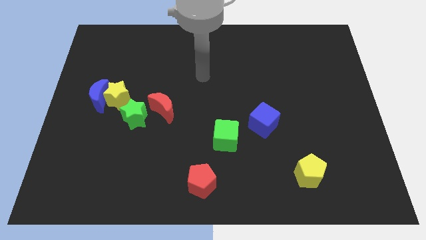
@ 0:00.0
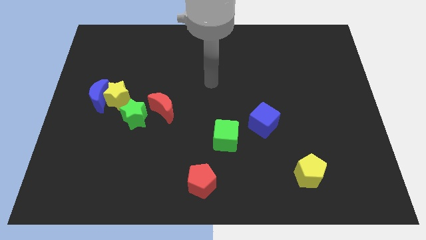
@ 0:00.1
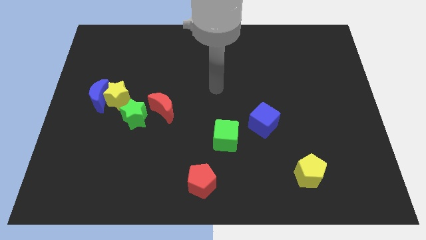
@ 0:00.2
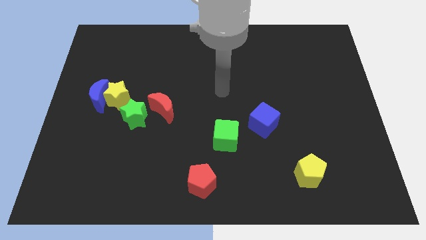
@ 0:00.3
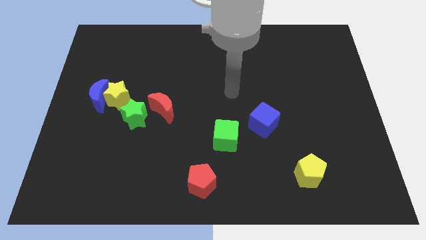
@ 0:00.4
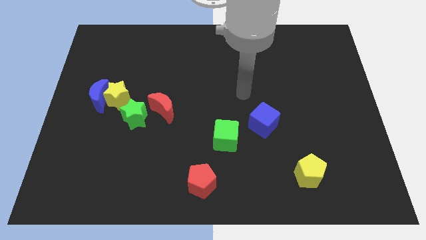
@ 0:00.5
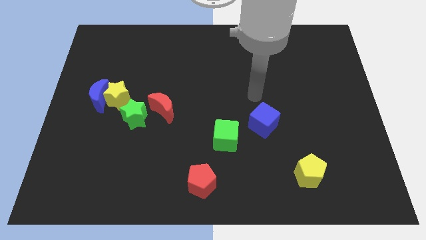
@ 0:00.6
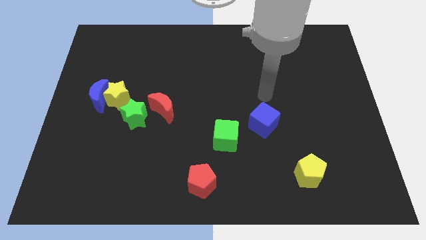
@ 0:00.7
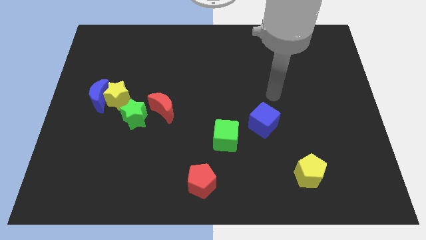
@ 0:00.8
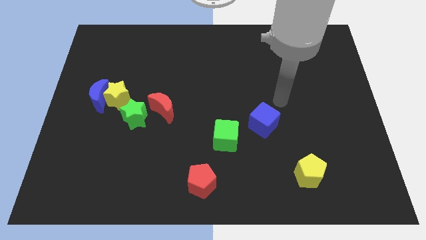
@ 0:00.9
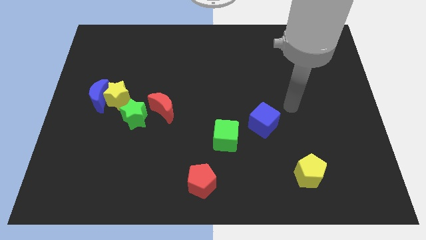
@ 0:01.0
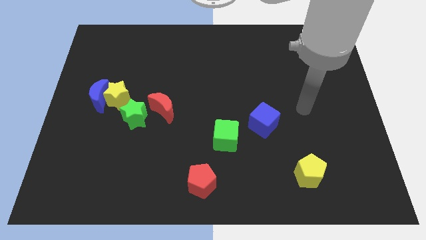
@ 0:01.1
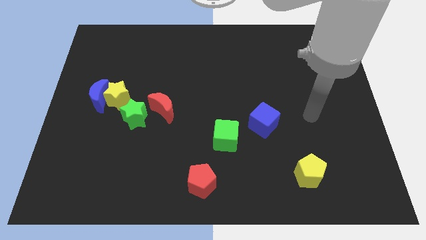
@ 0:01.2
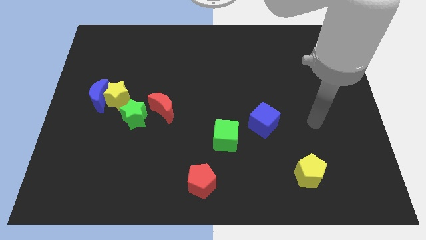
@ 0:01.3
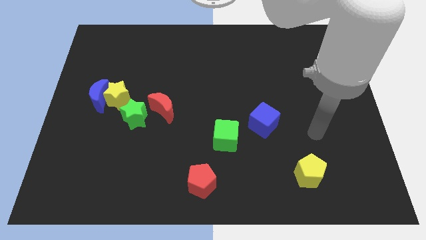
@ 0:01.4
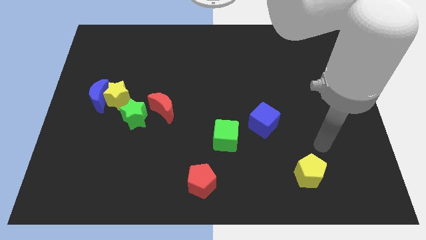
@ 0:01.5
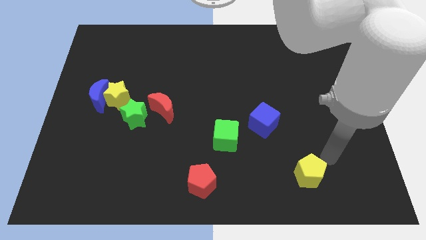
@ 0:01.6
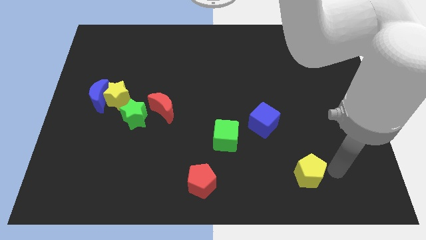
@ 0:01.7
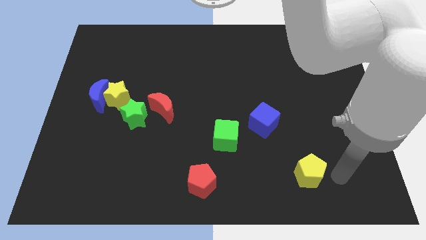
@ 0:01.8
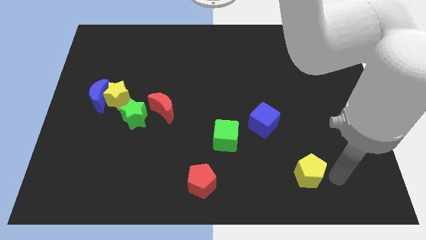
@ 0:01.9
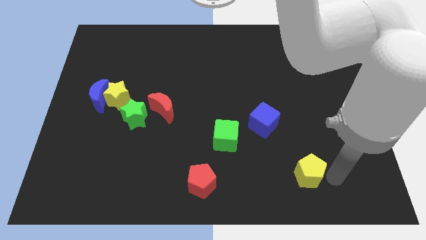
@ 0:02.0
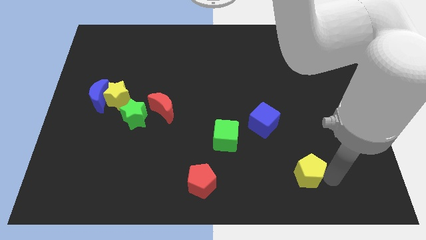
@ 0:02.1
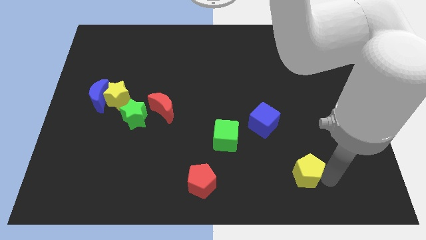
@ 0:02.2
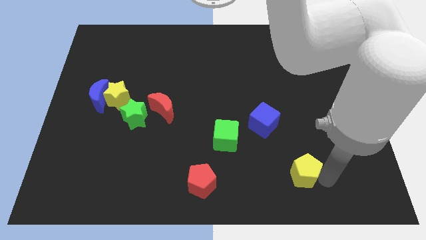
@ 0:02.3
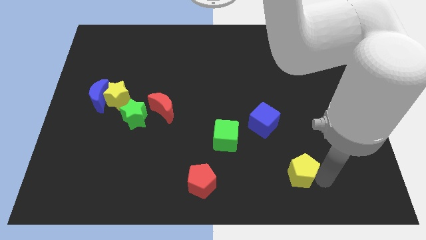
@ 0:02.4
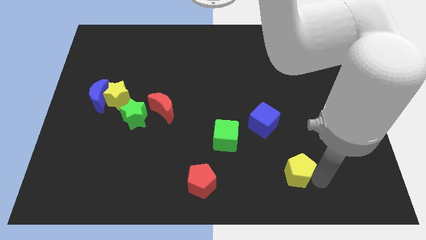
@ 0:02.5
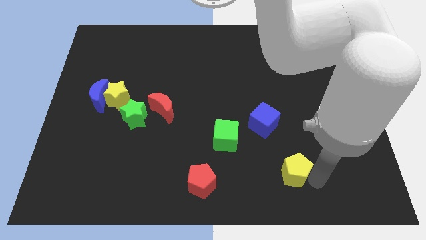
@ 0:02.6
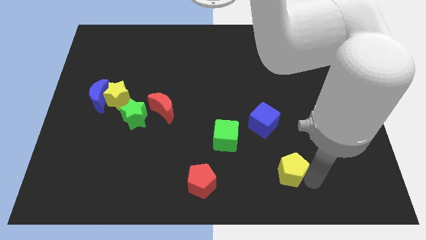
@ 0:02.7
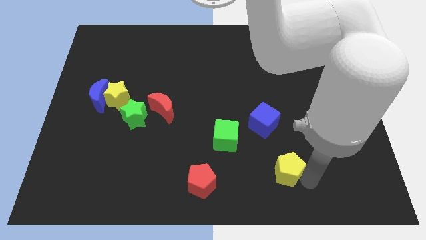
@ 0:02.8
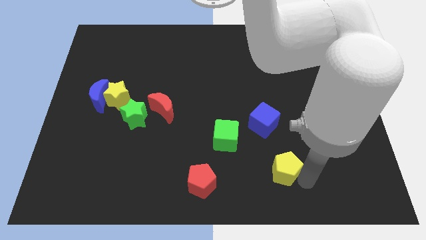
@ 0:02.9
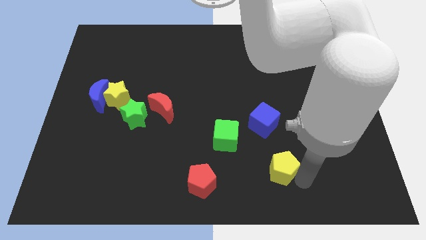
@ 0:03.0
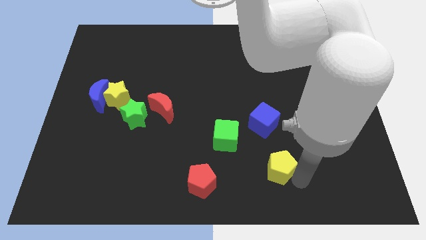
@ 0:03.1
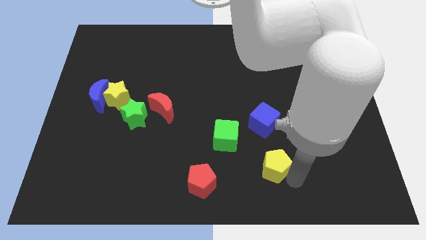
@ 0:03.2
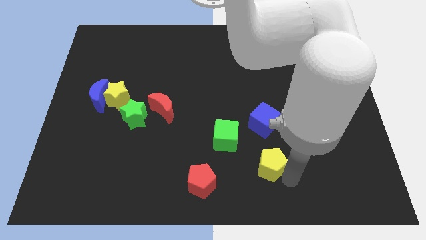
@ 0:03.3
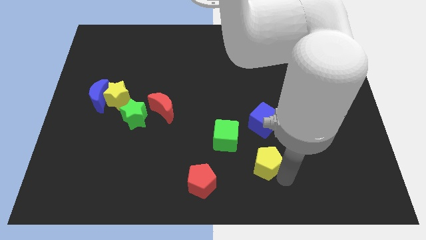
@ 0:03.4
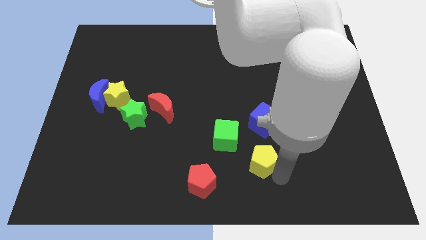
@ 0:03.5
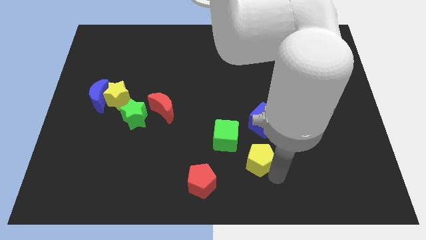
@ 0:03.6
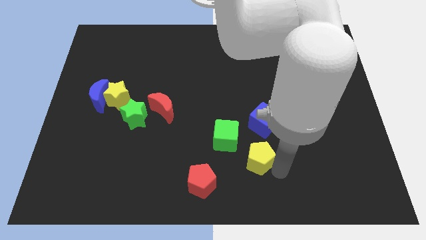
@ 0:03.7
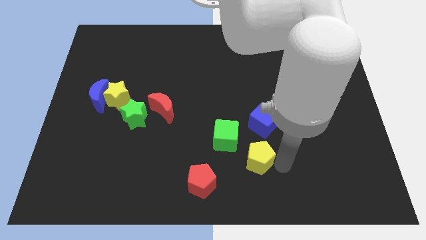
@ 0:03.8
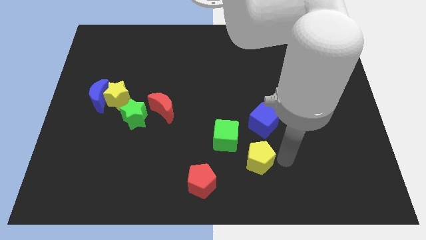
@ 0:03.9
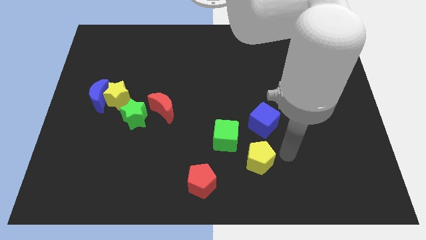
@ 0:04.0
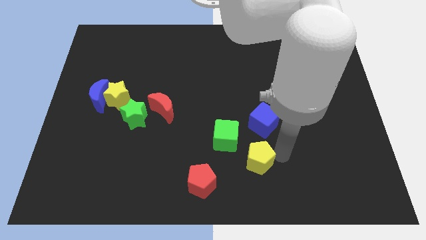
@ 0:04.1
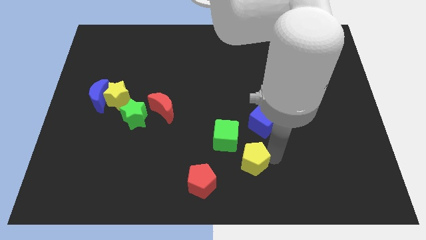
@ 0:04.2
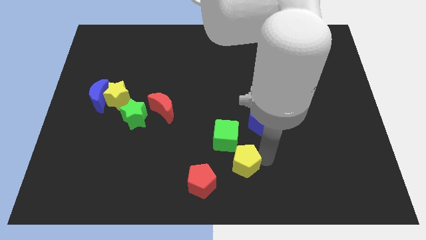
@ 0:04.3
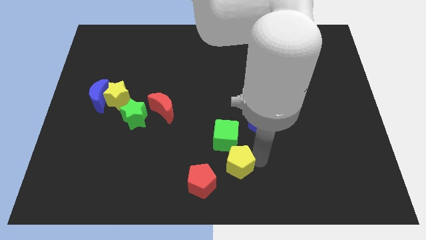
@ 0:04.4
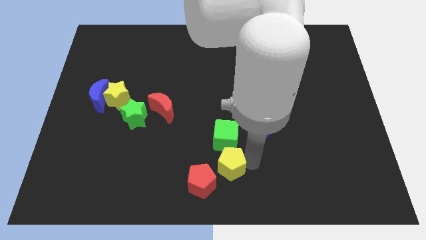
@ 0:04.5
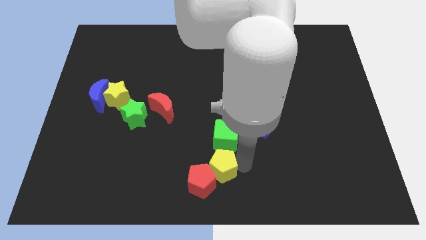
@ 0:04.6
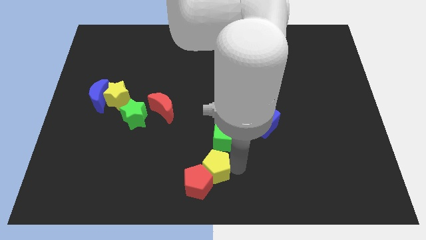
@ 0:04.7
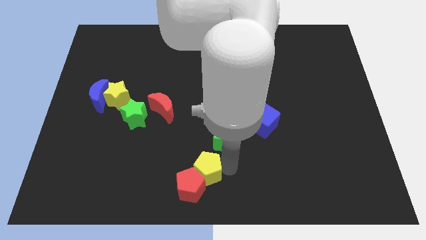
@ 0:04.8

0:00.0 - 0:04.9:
push the yellow pentagon to the left

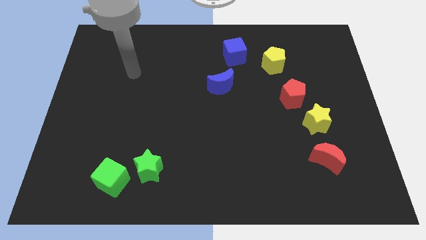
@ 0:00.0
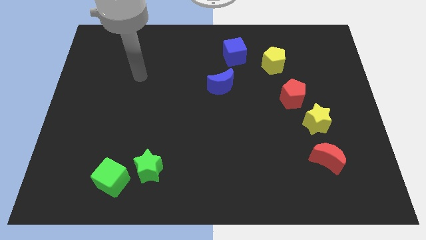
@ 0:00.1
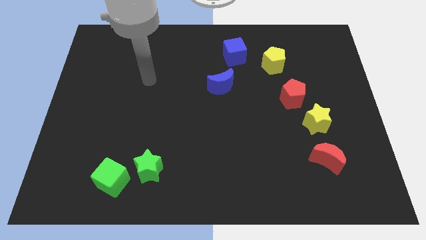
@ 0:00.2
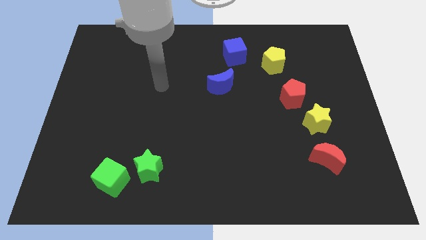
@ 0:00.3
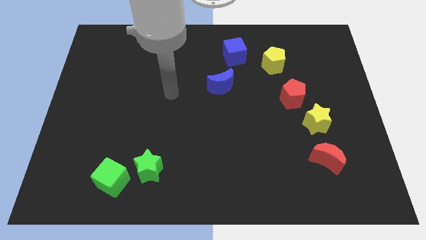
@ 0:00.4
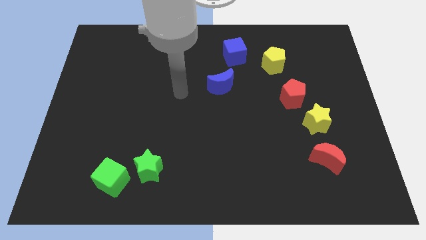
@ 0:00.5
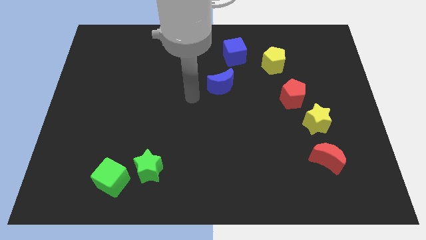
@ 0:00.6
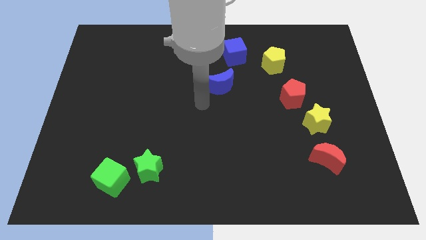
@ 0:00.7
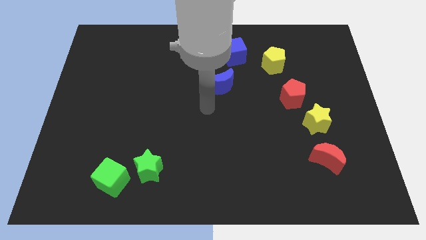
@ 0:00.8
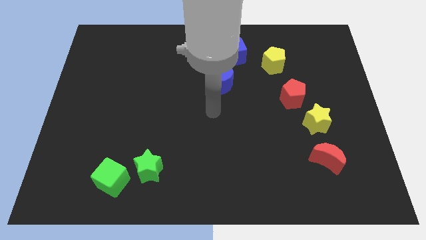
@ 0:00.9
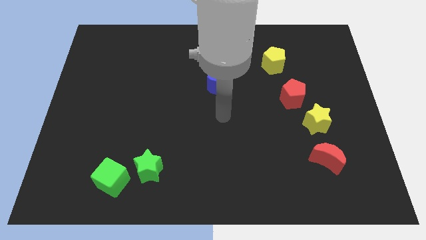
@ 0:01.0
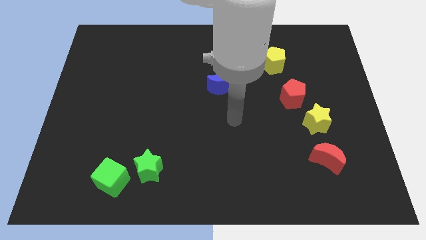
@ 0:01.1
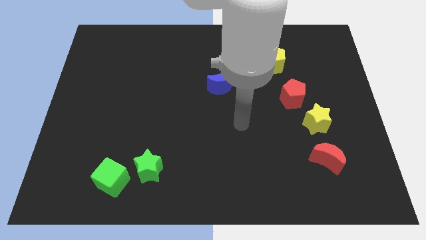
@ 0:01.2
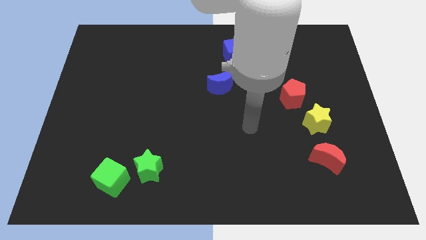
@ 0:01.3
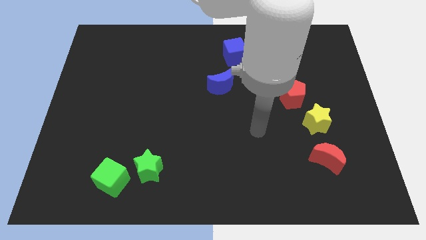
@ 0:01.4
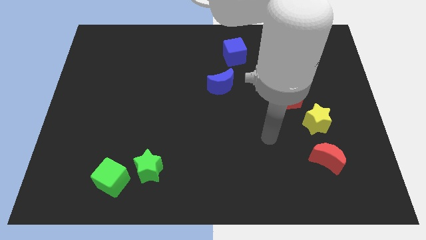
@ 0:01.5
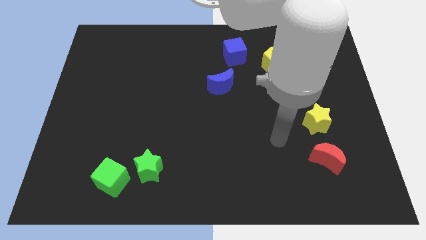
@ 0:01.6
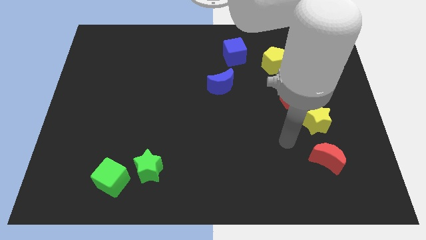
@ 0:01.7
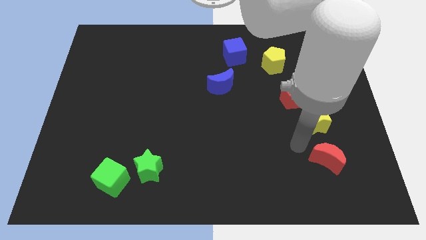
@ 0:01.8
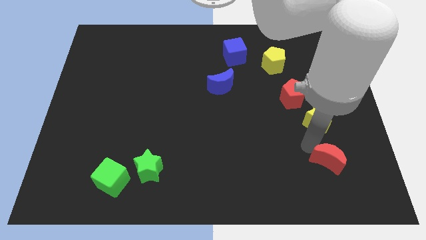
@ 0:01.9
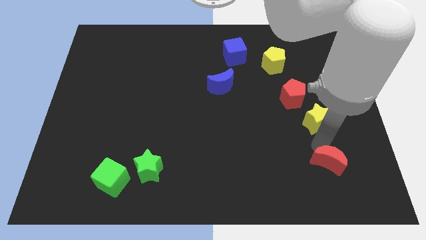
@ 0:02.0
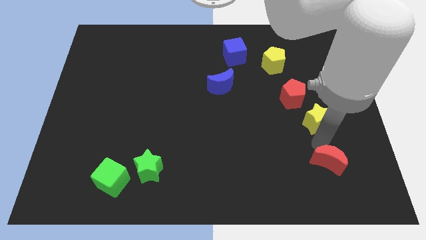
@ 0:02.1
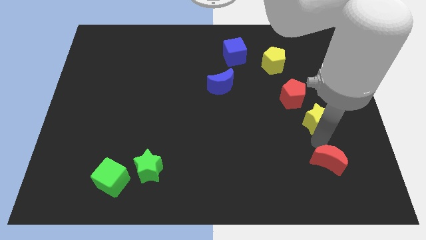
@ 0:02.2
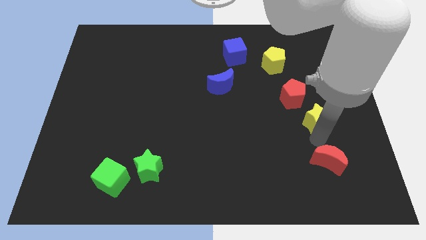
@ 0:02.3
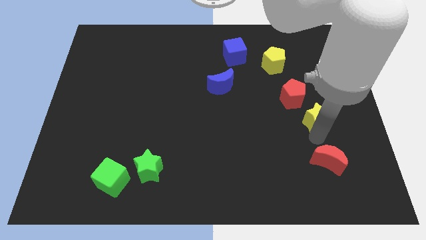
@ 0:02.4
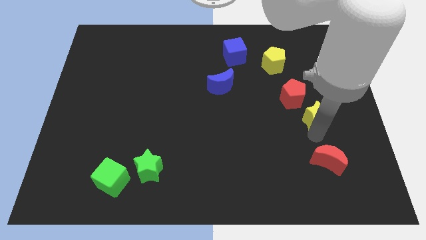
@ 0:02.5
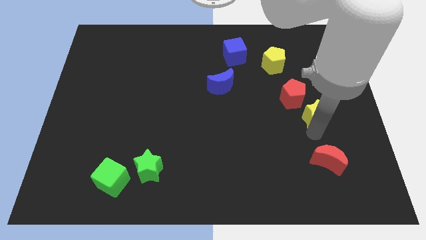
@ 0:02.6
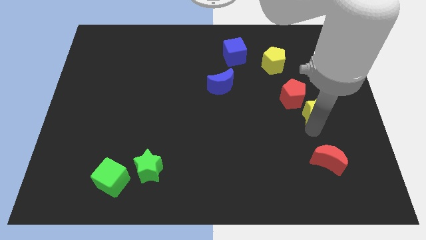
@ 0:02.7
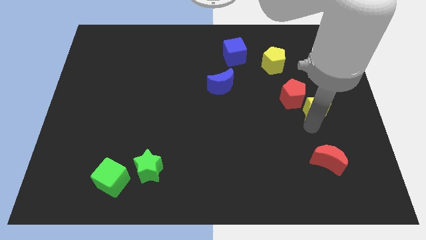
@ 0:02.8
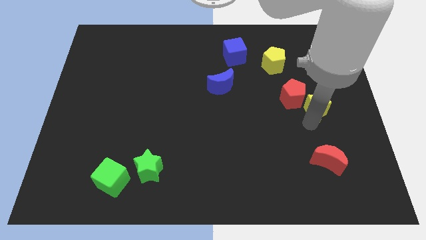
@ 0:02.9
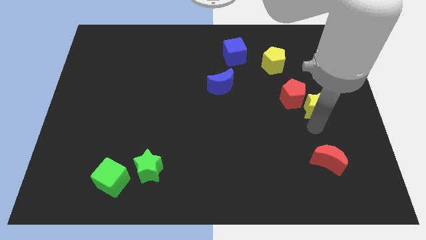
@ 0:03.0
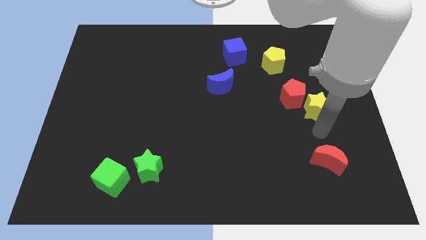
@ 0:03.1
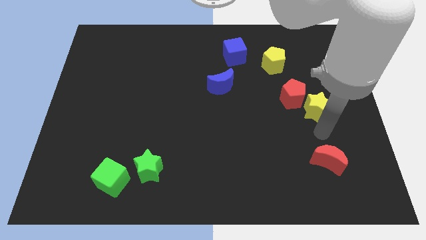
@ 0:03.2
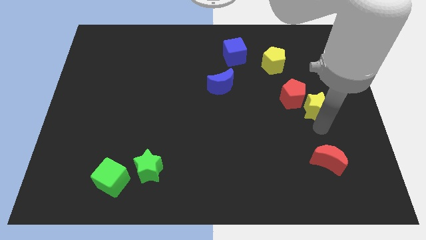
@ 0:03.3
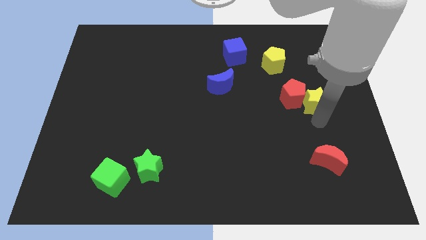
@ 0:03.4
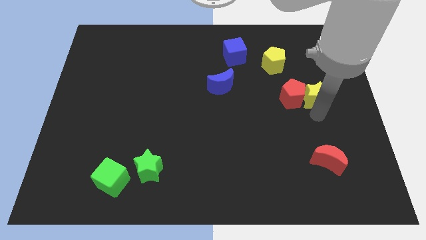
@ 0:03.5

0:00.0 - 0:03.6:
push the yellow star a little up
